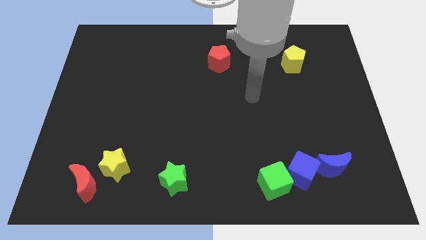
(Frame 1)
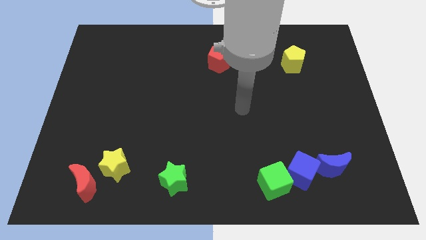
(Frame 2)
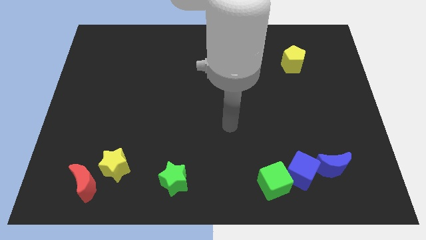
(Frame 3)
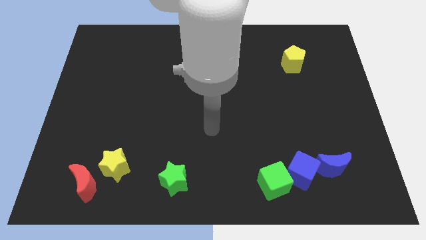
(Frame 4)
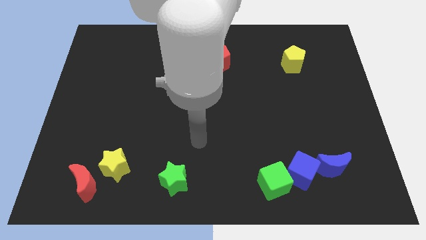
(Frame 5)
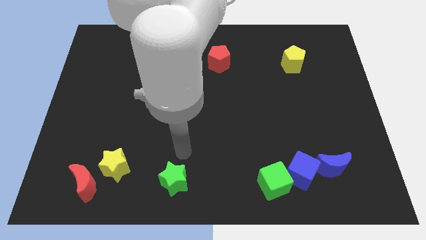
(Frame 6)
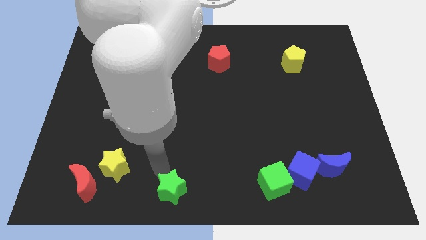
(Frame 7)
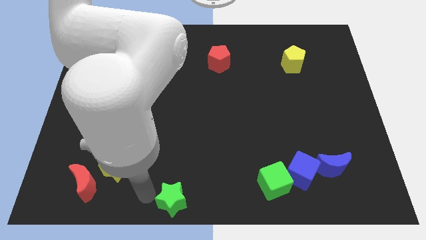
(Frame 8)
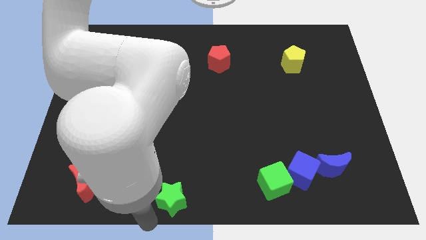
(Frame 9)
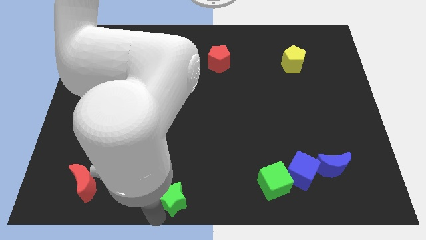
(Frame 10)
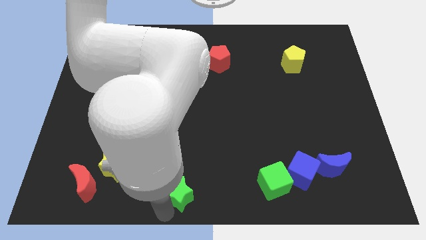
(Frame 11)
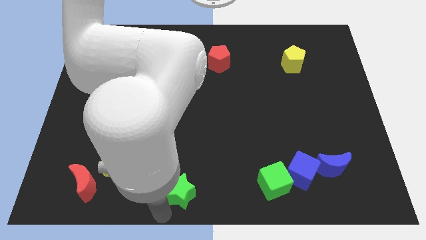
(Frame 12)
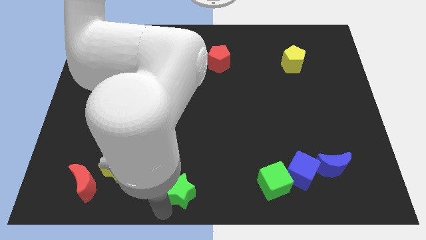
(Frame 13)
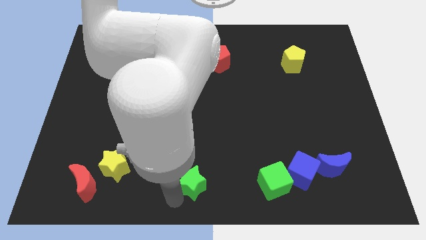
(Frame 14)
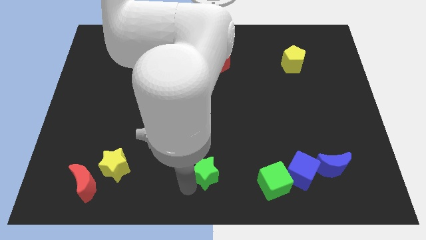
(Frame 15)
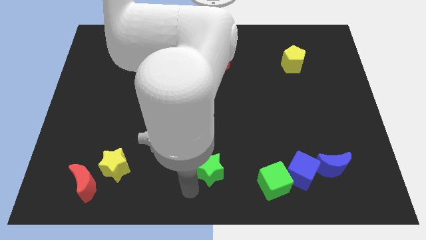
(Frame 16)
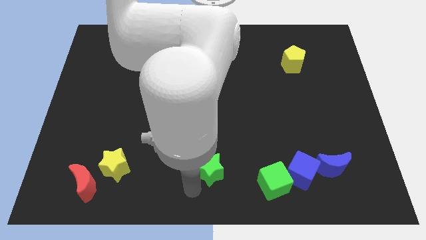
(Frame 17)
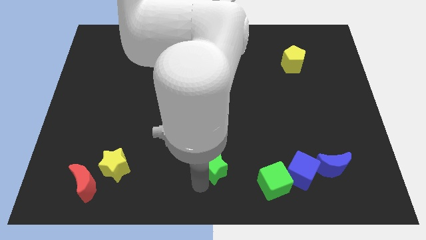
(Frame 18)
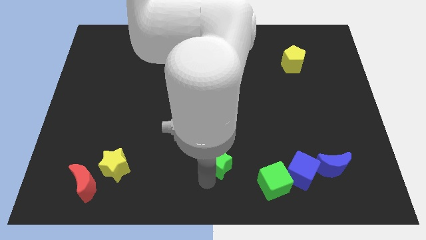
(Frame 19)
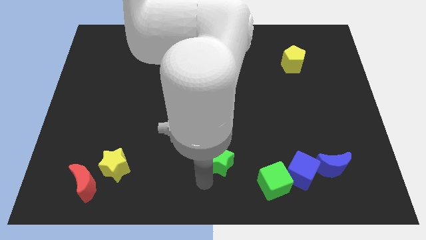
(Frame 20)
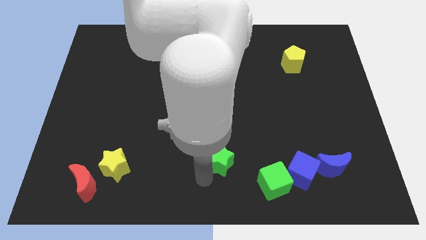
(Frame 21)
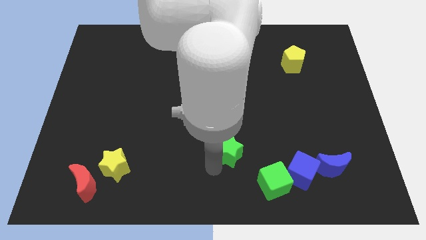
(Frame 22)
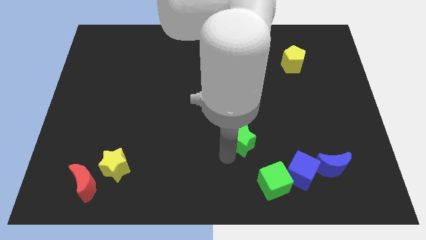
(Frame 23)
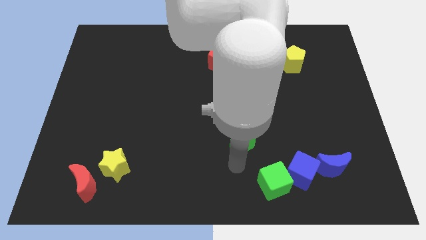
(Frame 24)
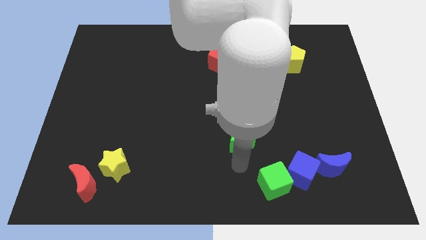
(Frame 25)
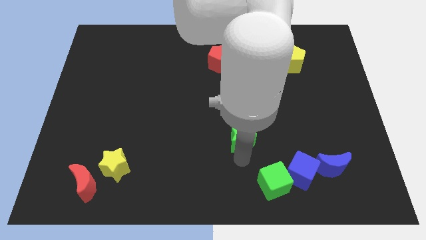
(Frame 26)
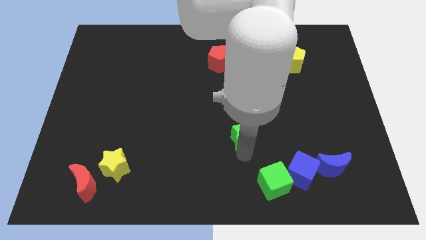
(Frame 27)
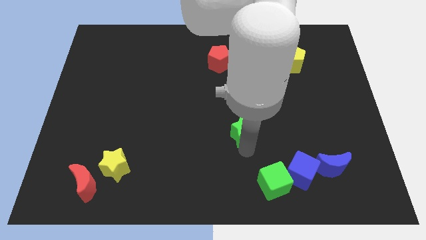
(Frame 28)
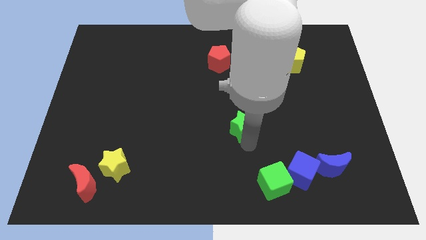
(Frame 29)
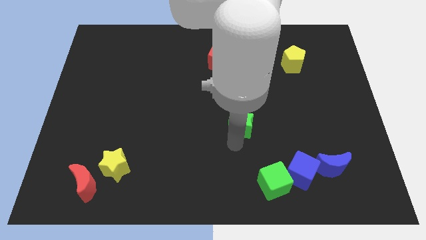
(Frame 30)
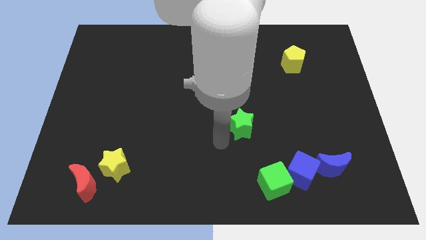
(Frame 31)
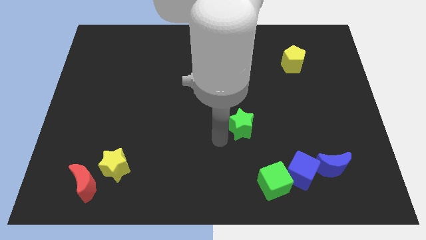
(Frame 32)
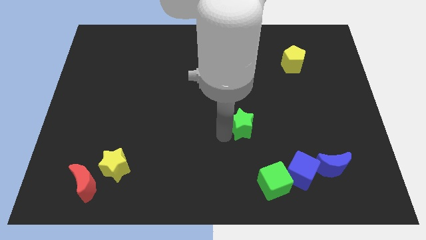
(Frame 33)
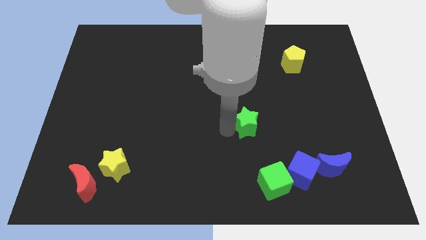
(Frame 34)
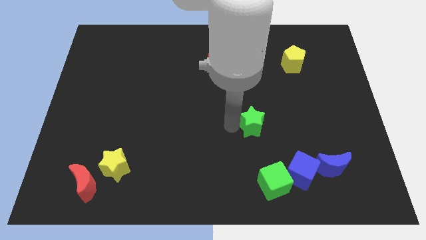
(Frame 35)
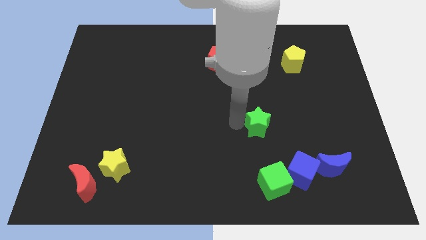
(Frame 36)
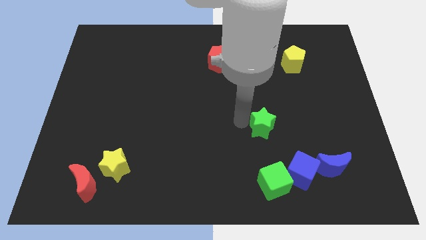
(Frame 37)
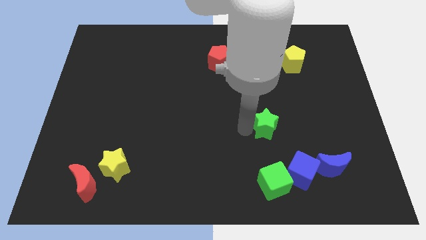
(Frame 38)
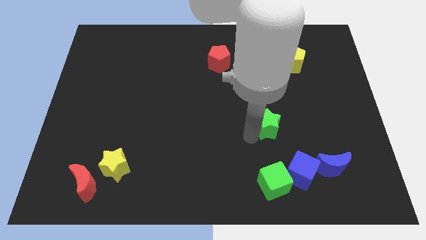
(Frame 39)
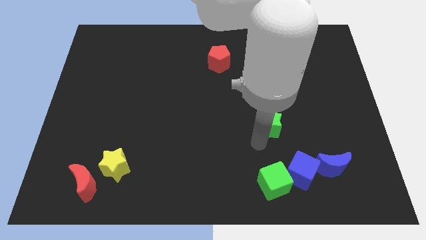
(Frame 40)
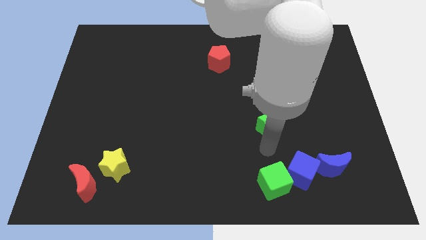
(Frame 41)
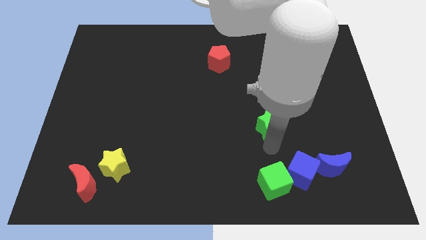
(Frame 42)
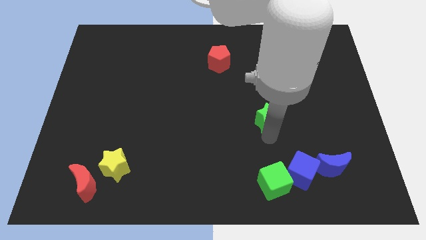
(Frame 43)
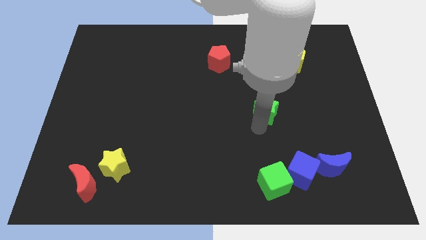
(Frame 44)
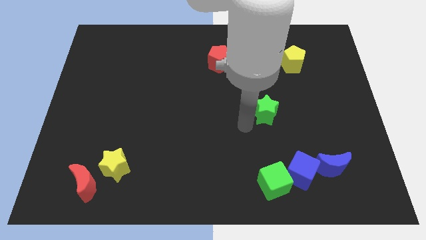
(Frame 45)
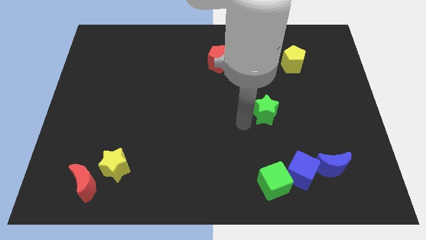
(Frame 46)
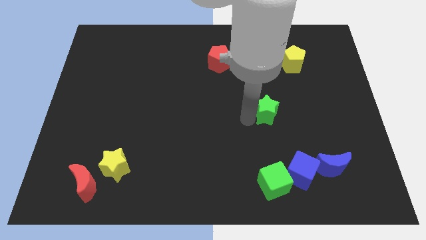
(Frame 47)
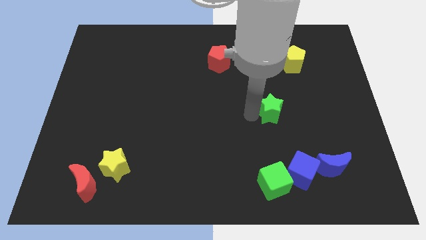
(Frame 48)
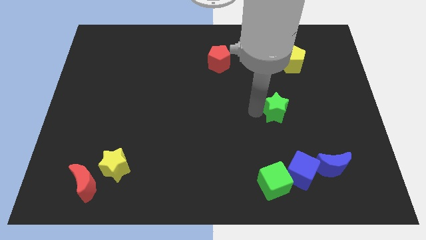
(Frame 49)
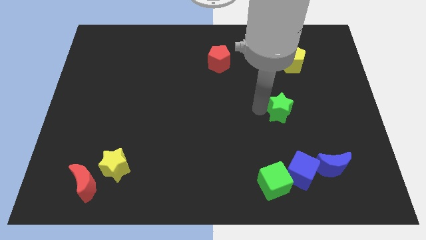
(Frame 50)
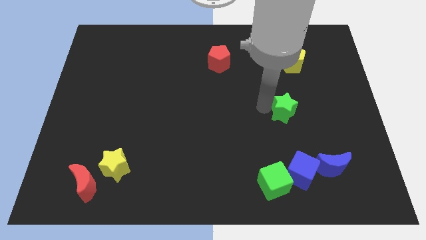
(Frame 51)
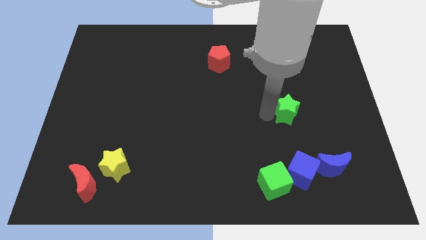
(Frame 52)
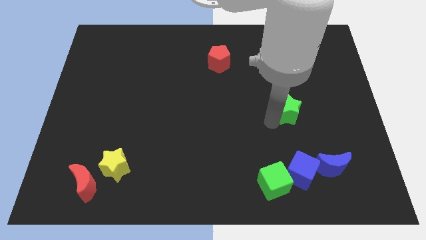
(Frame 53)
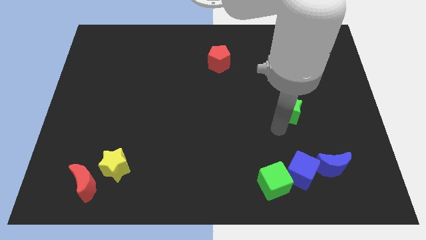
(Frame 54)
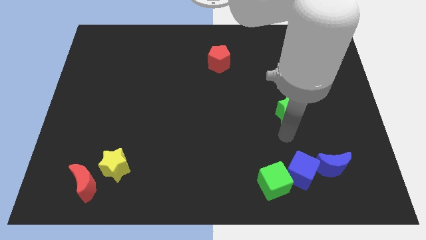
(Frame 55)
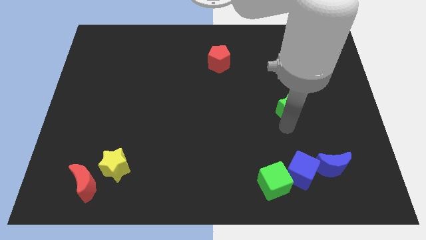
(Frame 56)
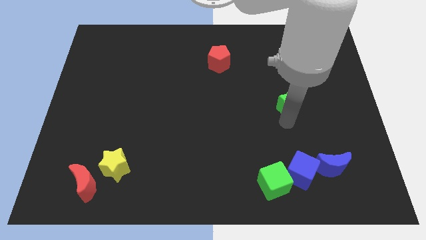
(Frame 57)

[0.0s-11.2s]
slide the green star to the bottom side of the yellow pentagon

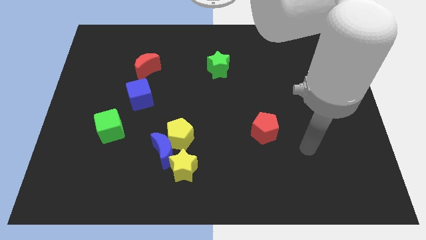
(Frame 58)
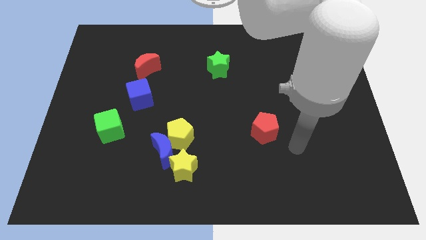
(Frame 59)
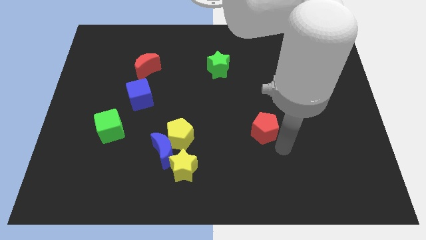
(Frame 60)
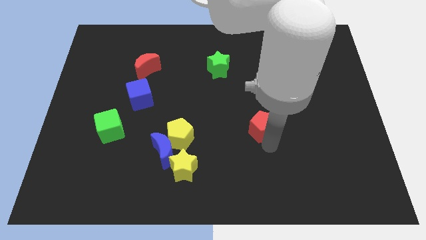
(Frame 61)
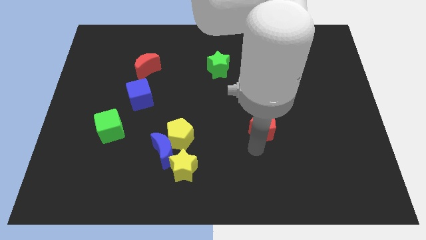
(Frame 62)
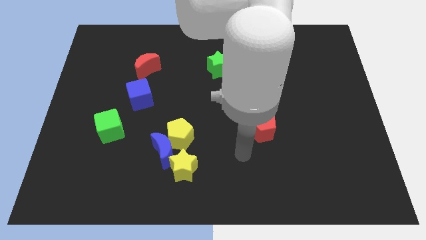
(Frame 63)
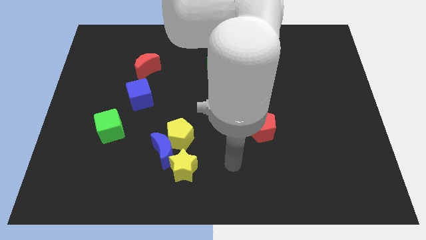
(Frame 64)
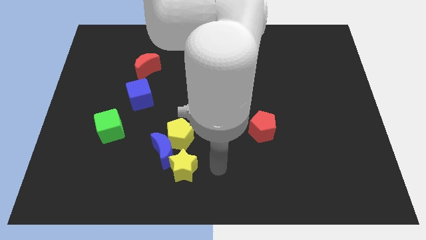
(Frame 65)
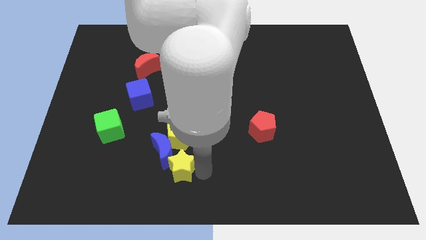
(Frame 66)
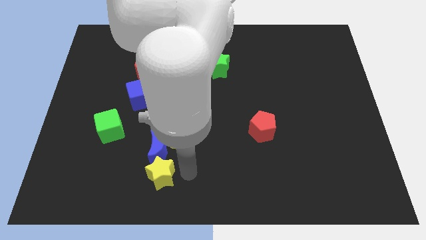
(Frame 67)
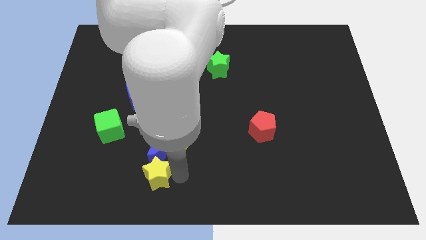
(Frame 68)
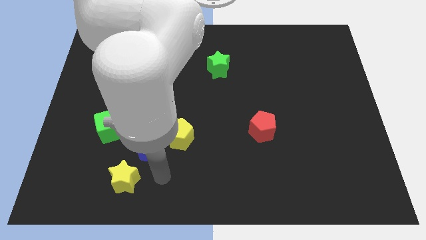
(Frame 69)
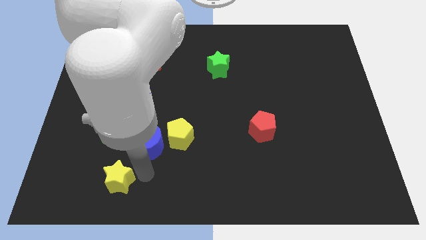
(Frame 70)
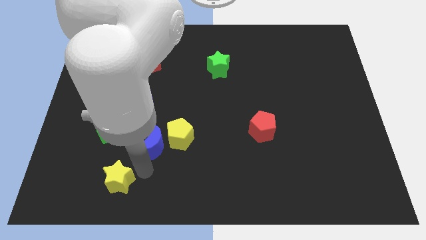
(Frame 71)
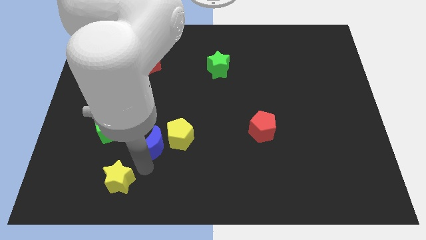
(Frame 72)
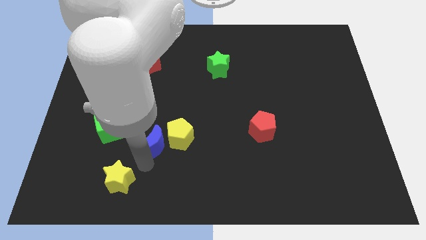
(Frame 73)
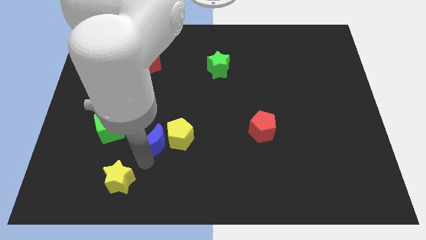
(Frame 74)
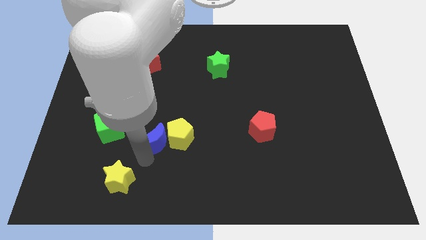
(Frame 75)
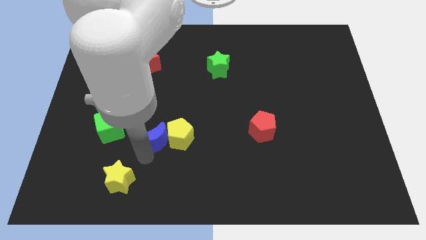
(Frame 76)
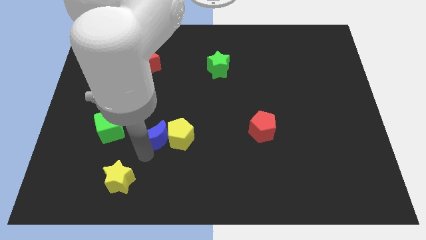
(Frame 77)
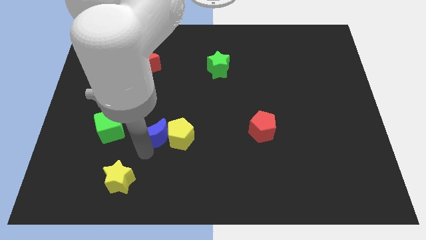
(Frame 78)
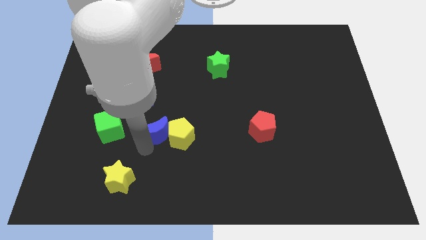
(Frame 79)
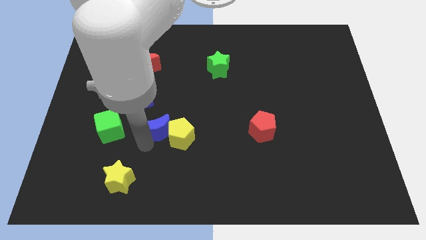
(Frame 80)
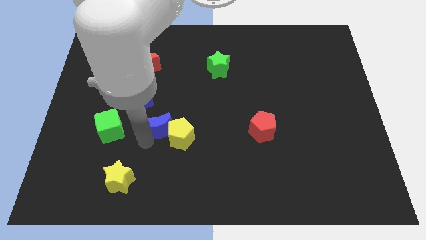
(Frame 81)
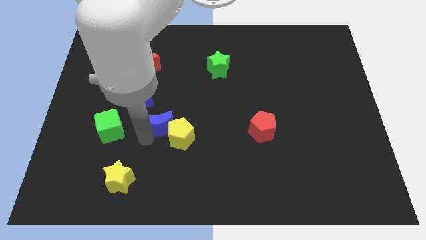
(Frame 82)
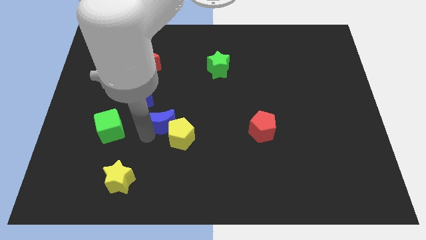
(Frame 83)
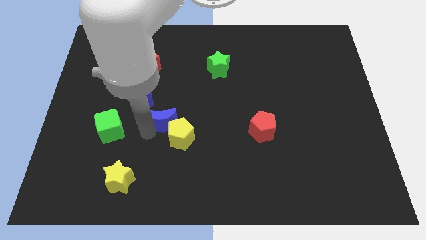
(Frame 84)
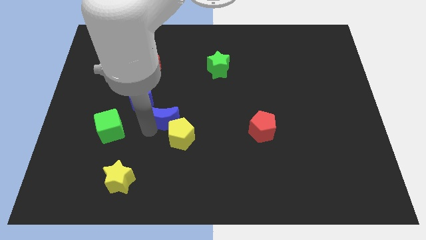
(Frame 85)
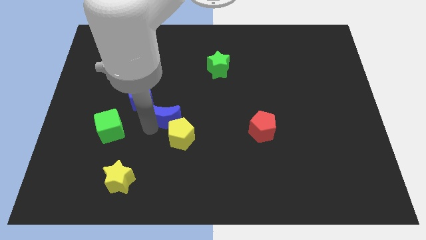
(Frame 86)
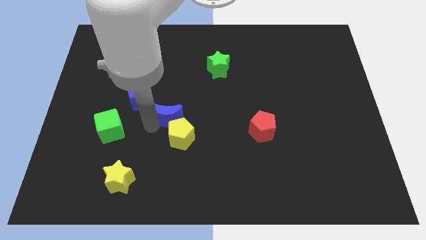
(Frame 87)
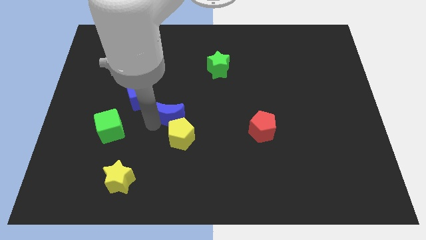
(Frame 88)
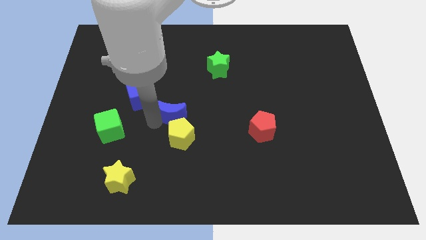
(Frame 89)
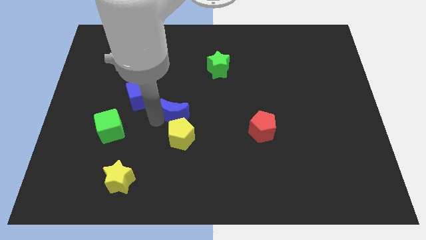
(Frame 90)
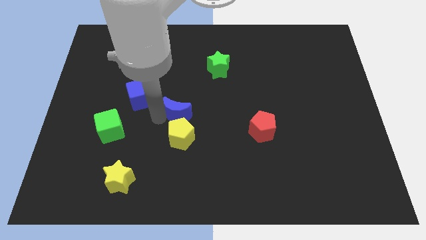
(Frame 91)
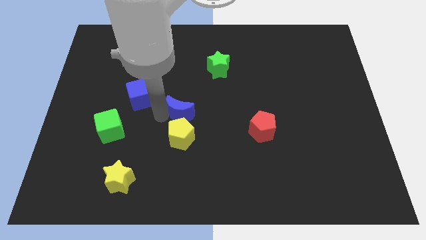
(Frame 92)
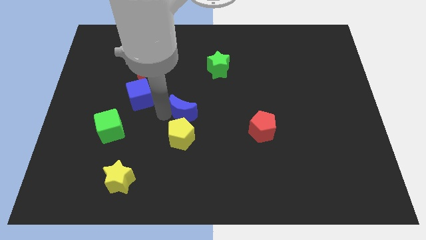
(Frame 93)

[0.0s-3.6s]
push the blue moon diagonally up and to the right of the yellow pentagon
